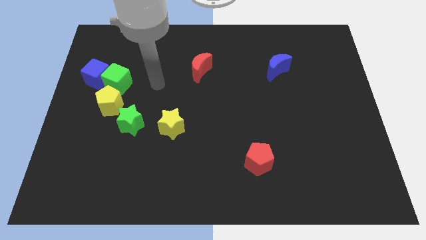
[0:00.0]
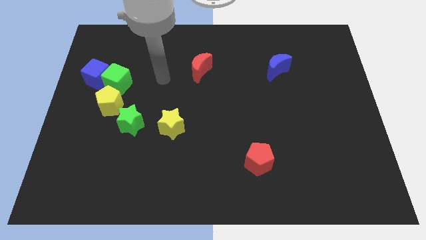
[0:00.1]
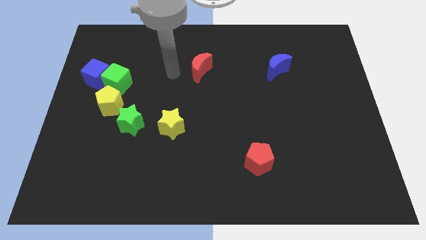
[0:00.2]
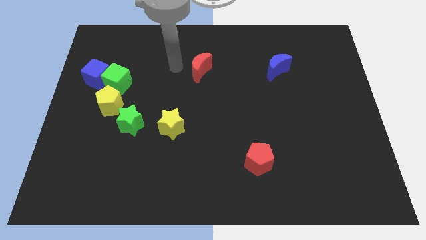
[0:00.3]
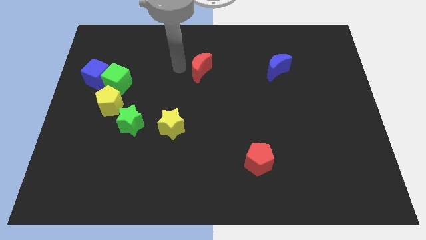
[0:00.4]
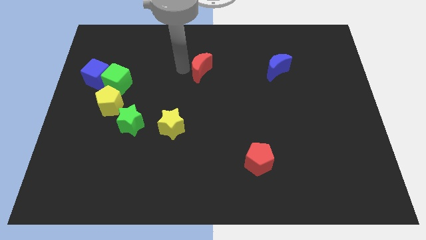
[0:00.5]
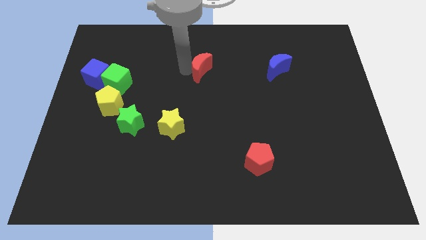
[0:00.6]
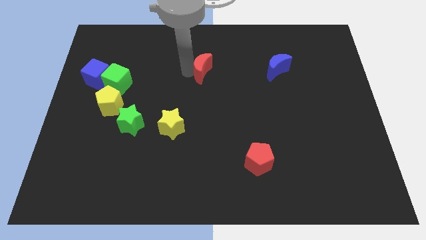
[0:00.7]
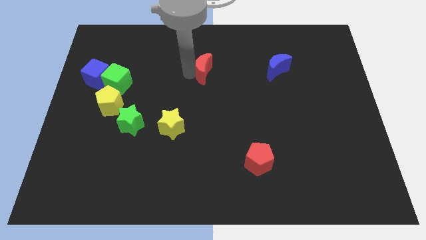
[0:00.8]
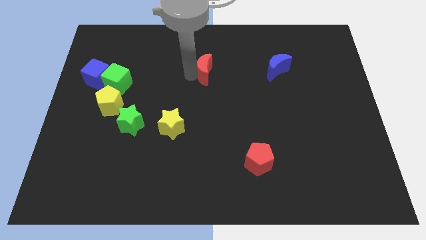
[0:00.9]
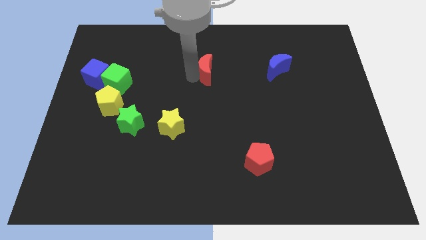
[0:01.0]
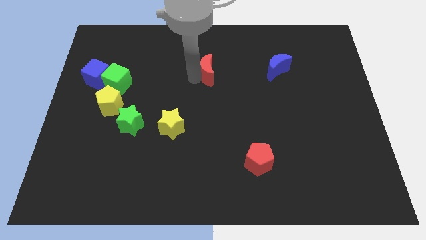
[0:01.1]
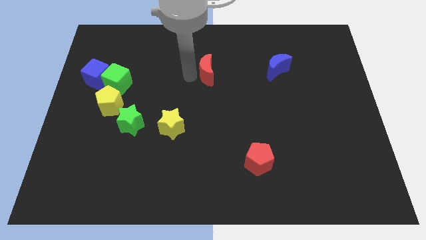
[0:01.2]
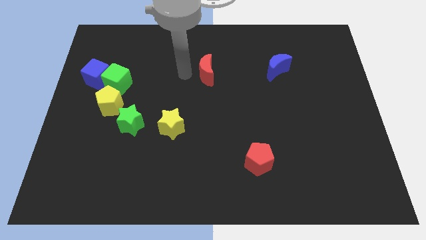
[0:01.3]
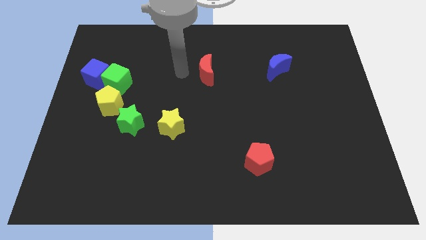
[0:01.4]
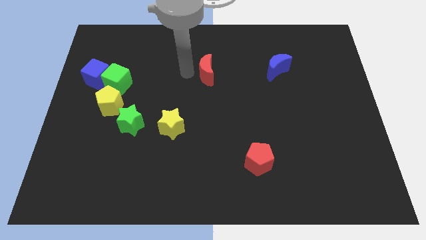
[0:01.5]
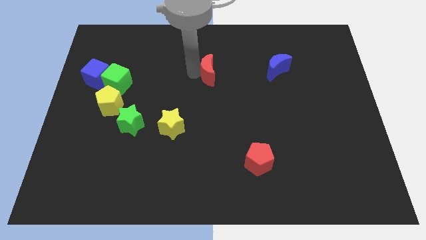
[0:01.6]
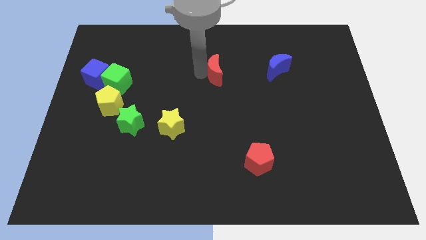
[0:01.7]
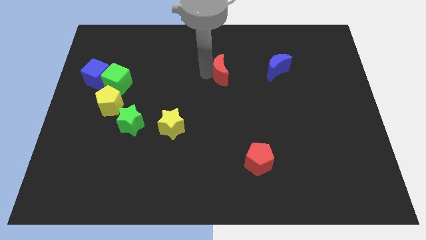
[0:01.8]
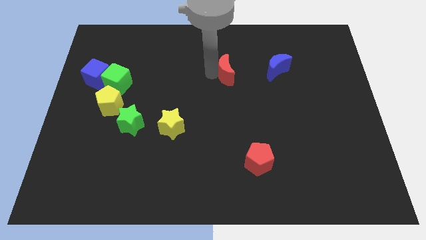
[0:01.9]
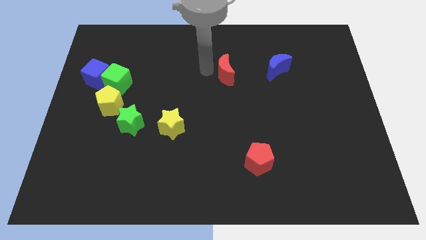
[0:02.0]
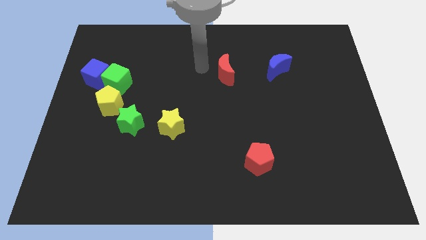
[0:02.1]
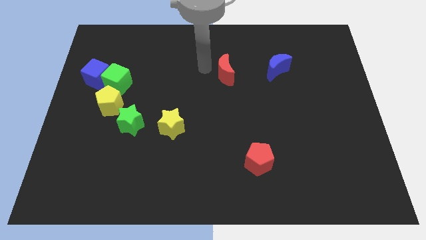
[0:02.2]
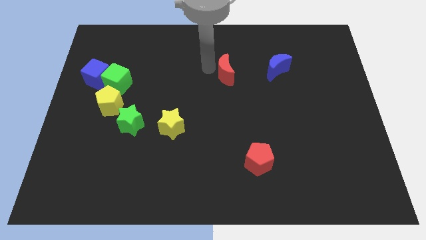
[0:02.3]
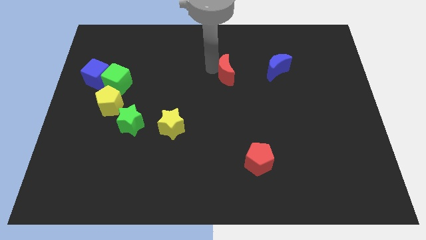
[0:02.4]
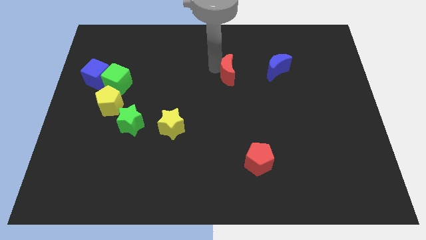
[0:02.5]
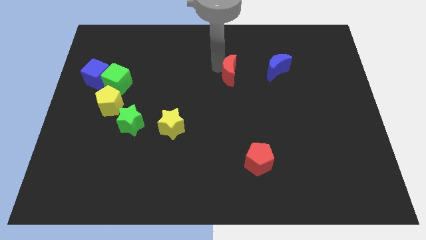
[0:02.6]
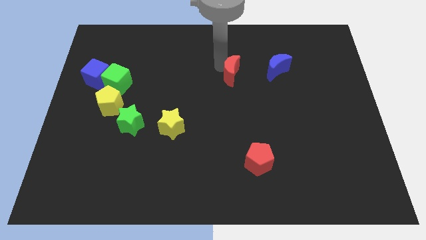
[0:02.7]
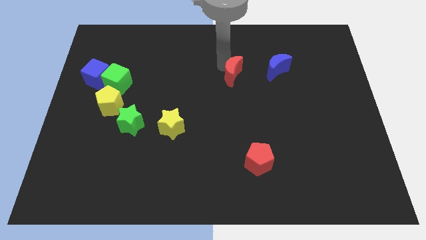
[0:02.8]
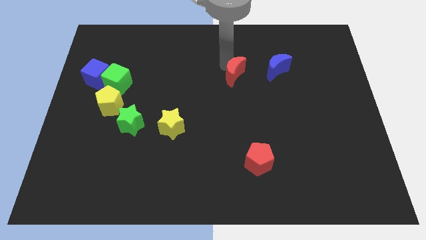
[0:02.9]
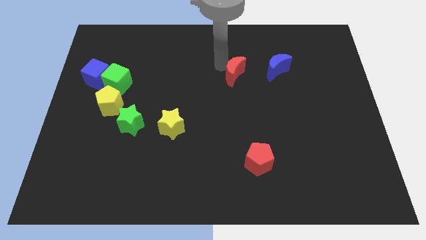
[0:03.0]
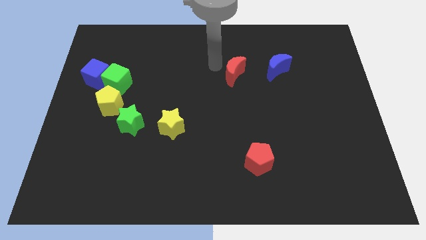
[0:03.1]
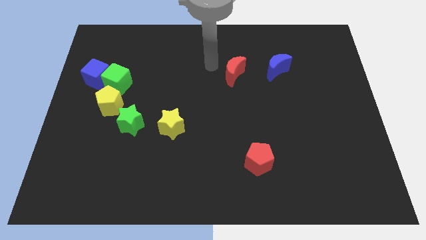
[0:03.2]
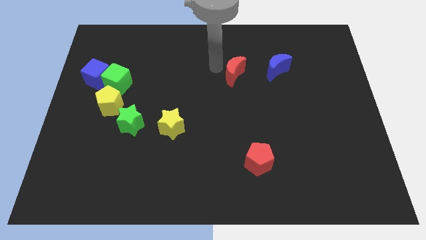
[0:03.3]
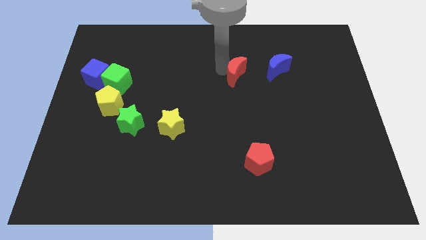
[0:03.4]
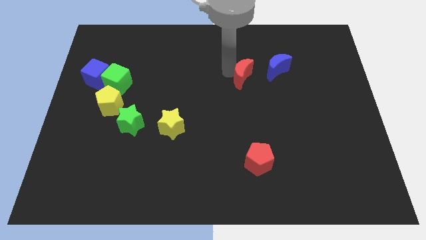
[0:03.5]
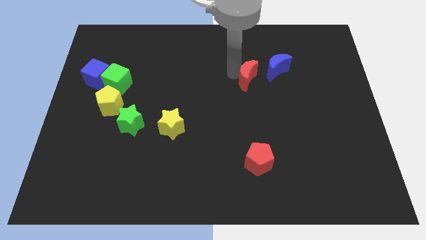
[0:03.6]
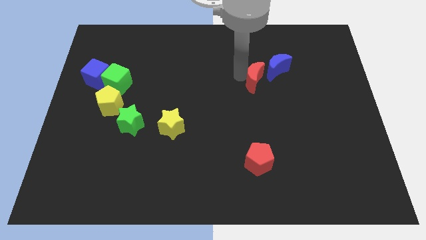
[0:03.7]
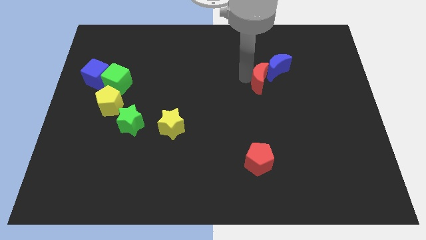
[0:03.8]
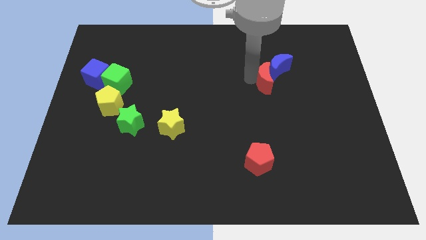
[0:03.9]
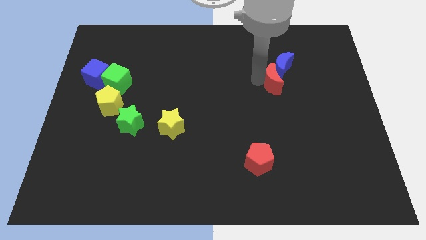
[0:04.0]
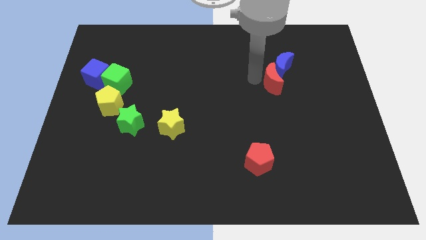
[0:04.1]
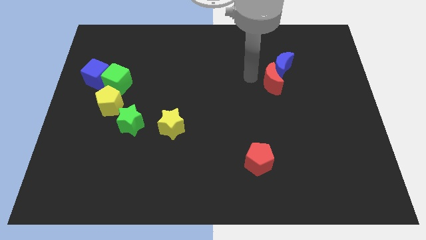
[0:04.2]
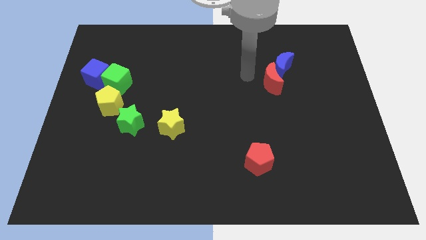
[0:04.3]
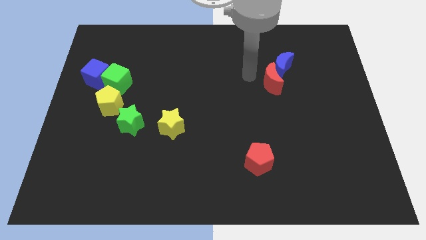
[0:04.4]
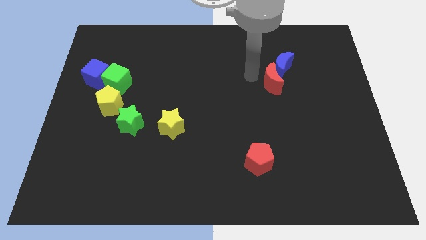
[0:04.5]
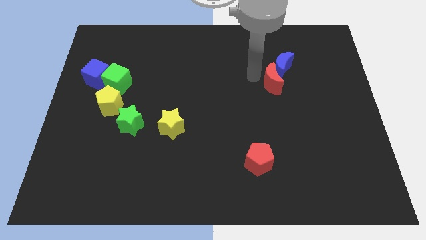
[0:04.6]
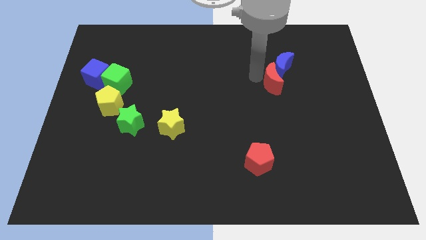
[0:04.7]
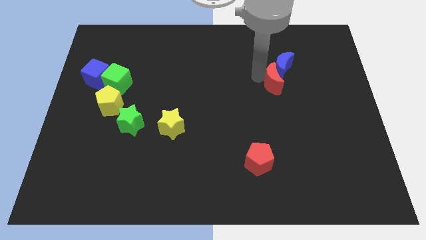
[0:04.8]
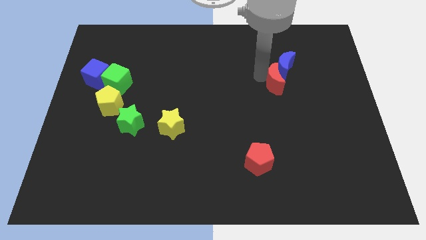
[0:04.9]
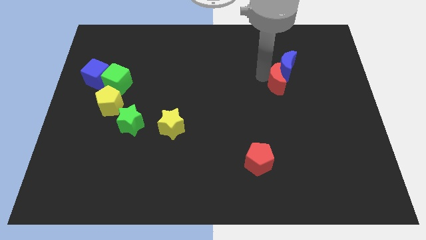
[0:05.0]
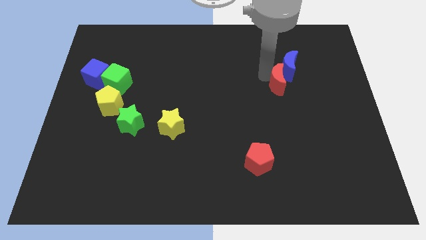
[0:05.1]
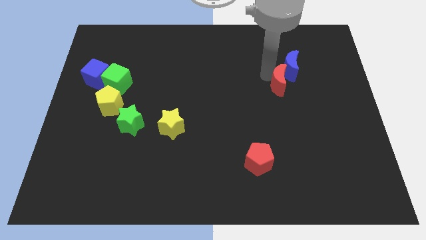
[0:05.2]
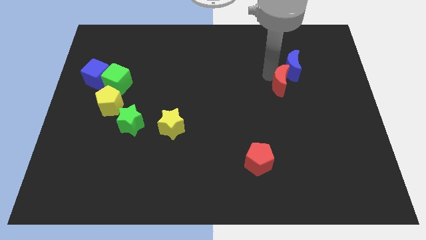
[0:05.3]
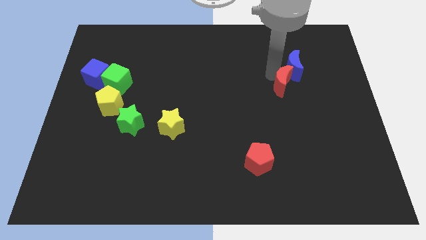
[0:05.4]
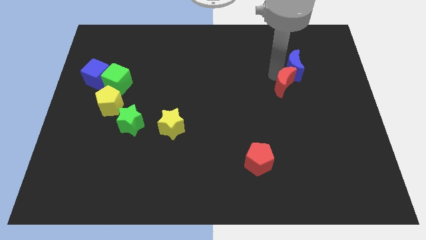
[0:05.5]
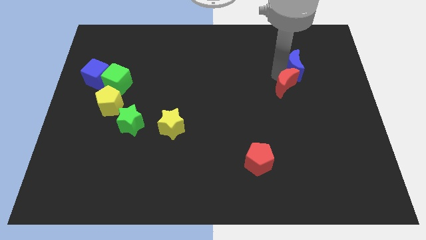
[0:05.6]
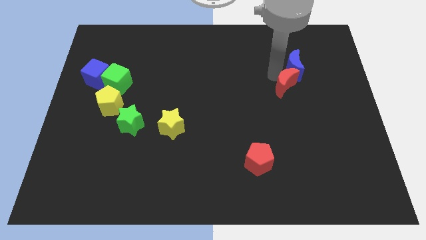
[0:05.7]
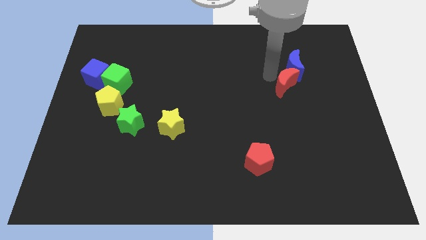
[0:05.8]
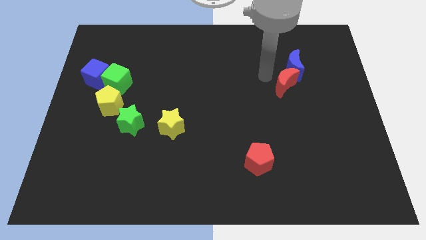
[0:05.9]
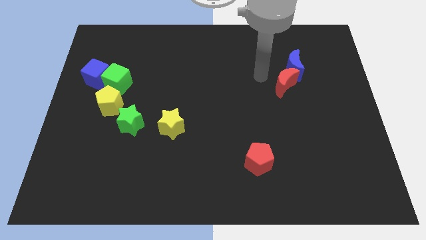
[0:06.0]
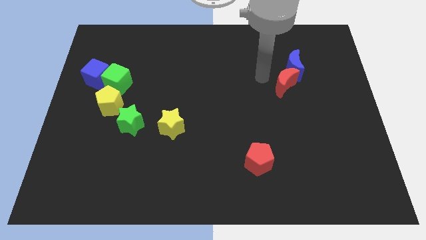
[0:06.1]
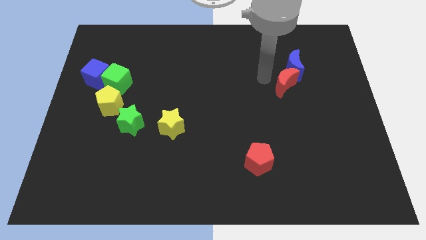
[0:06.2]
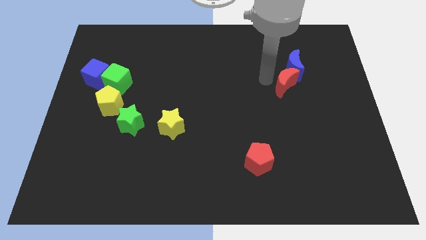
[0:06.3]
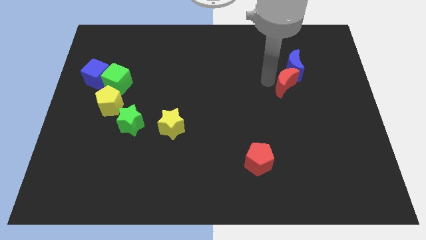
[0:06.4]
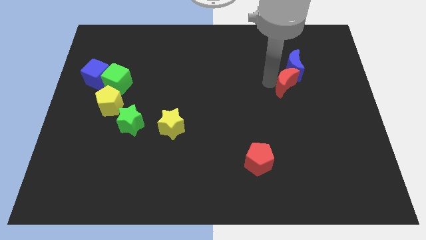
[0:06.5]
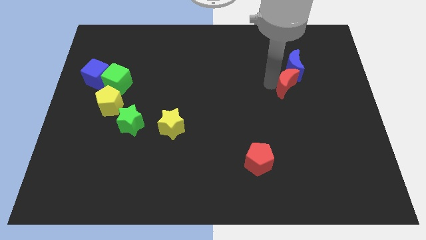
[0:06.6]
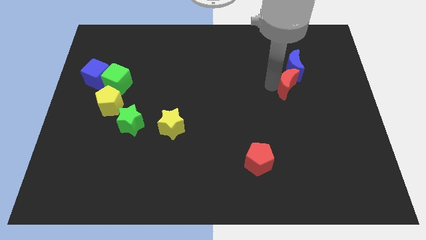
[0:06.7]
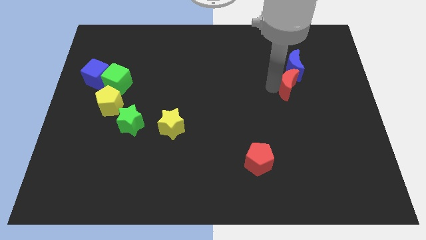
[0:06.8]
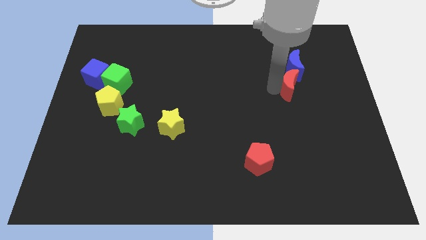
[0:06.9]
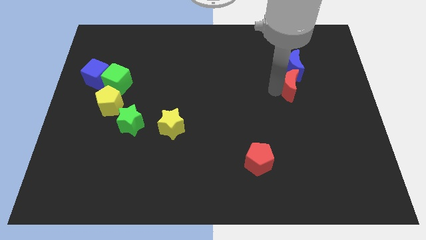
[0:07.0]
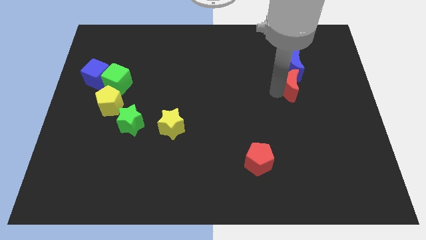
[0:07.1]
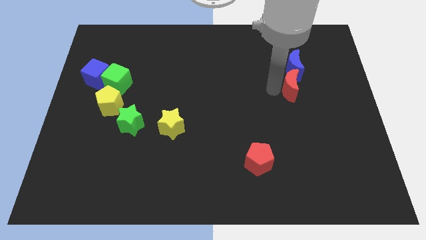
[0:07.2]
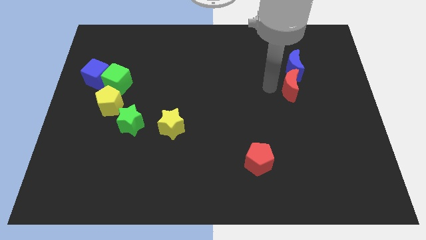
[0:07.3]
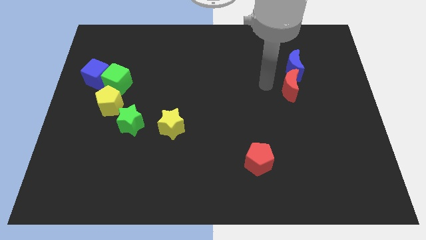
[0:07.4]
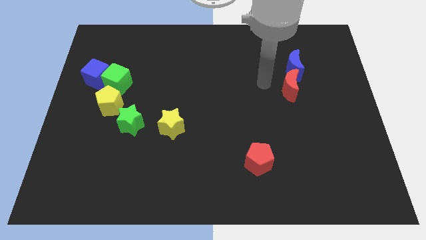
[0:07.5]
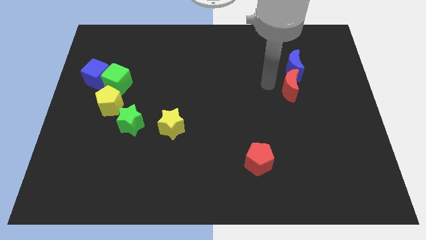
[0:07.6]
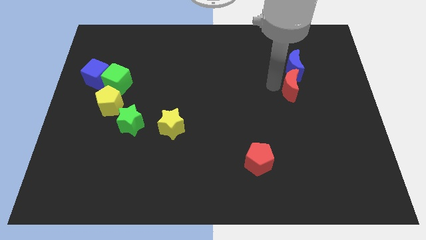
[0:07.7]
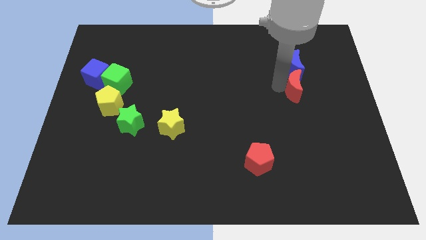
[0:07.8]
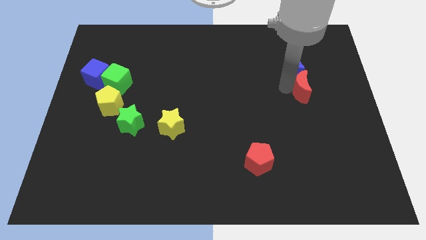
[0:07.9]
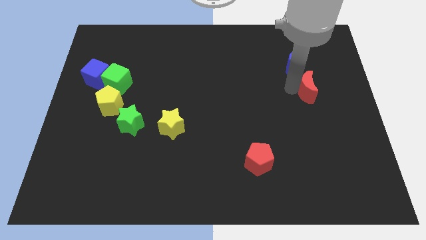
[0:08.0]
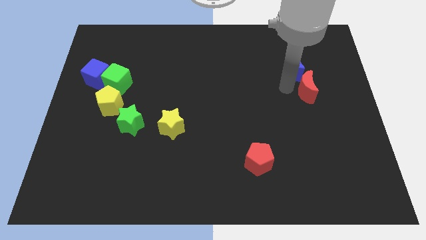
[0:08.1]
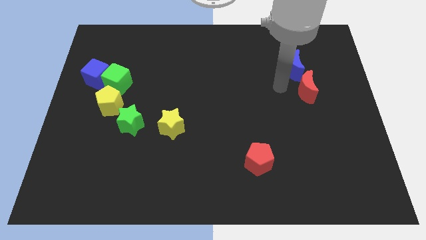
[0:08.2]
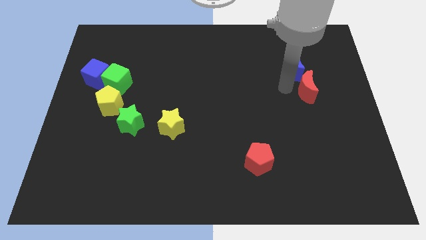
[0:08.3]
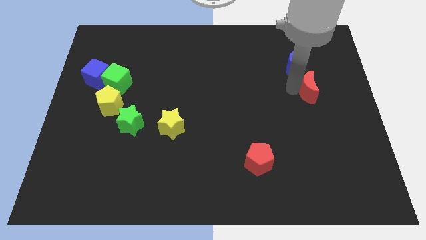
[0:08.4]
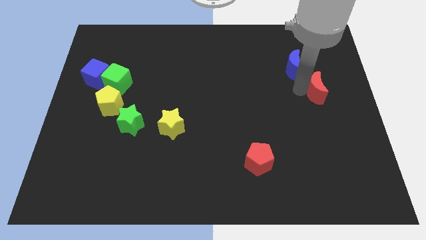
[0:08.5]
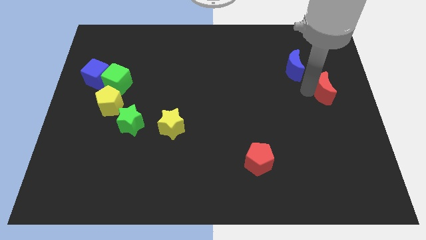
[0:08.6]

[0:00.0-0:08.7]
slide the red moon to the right side
